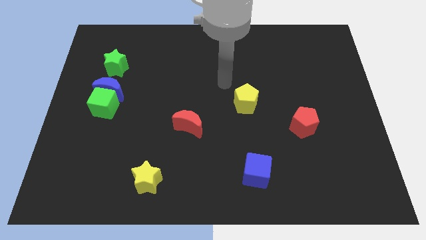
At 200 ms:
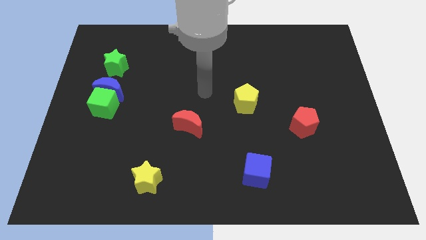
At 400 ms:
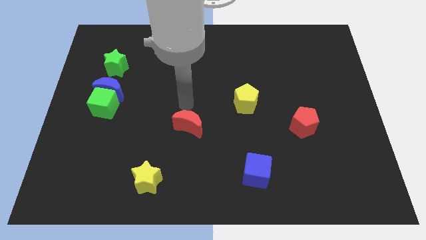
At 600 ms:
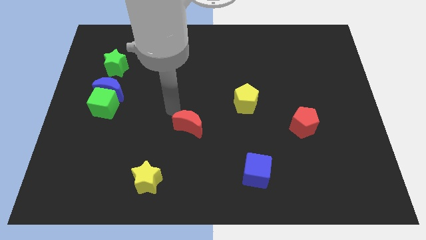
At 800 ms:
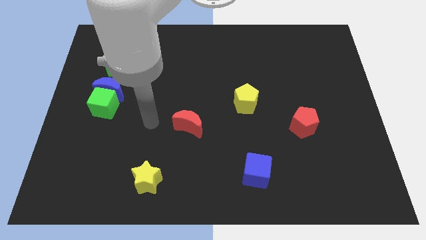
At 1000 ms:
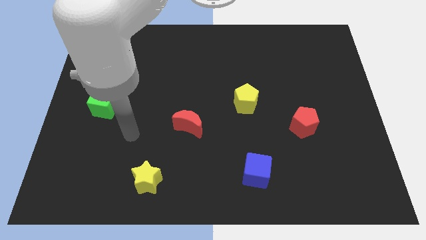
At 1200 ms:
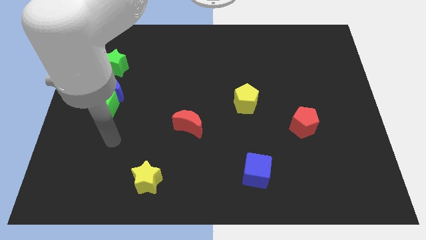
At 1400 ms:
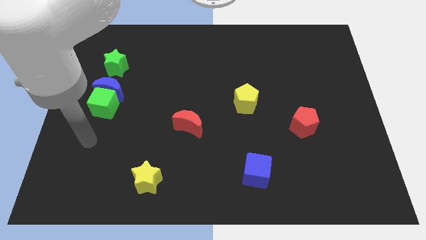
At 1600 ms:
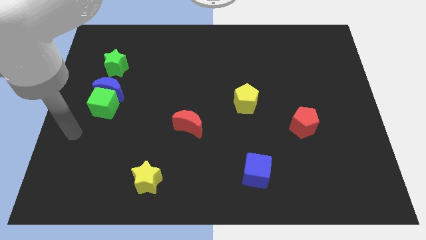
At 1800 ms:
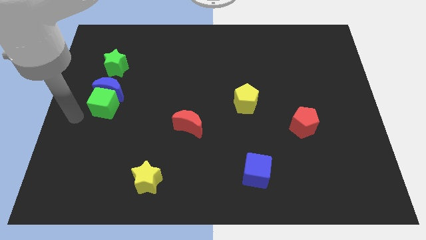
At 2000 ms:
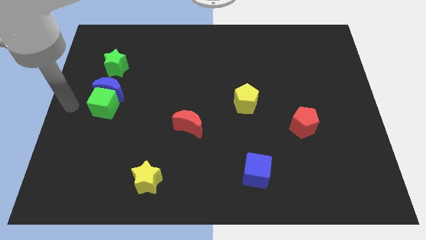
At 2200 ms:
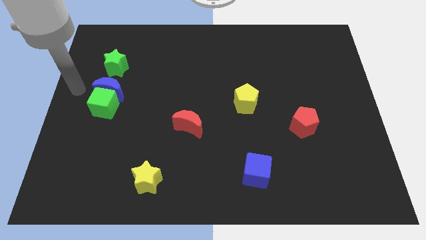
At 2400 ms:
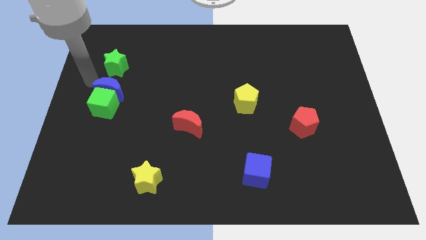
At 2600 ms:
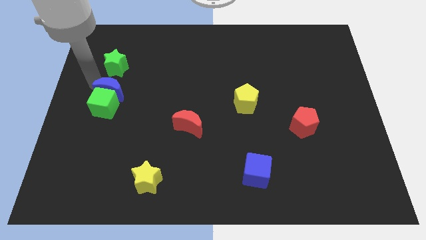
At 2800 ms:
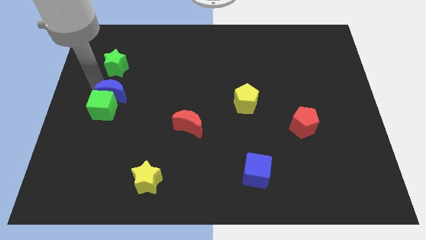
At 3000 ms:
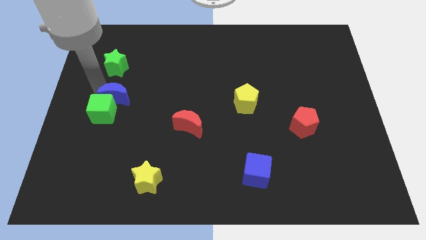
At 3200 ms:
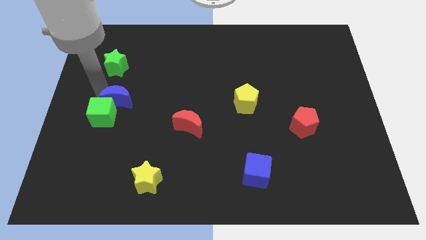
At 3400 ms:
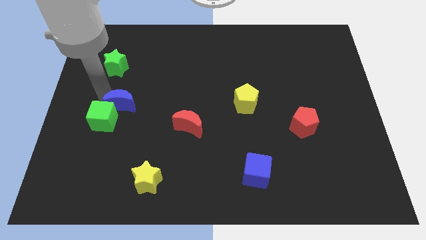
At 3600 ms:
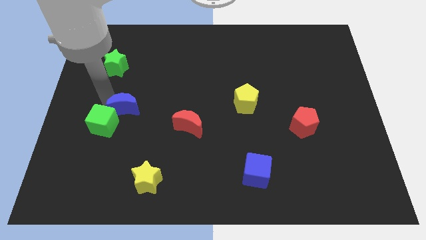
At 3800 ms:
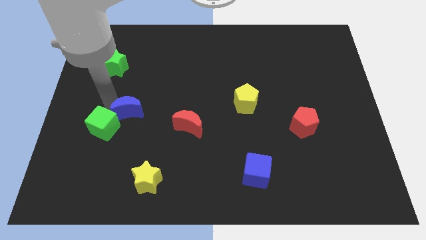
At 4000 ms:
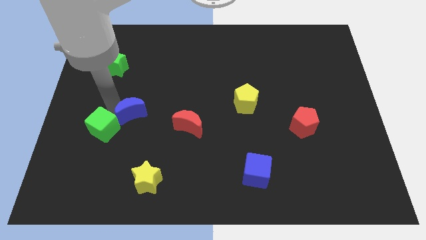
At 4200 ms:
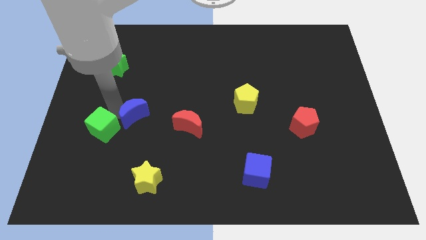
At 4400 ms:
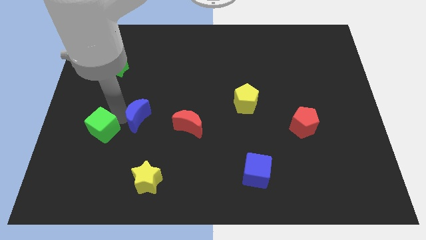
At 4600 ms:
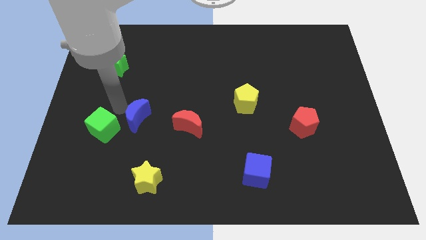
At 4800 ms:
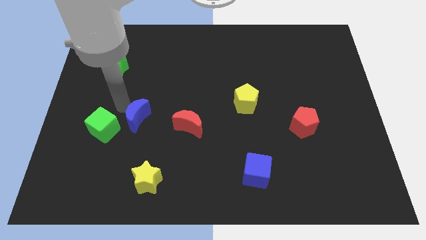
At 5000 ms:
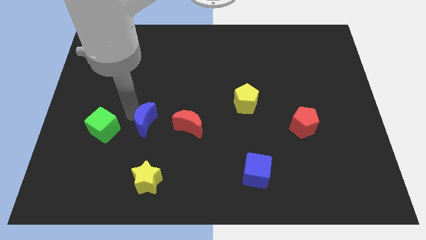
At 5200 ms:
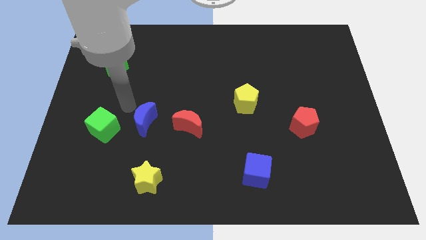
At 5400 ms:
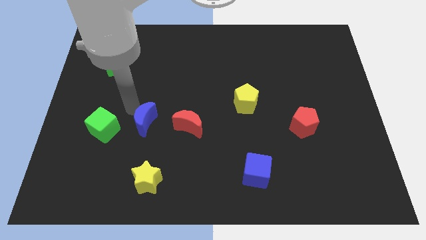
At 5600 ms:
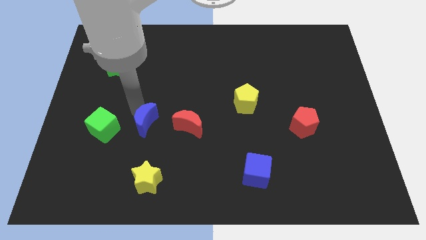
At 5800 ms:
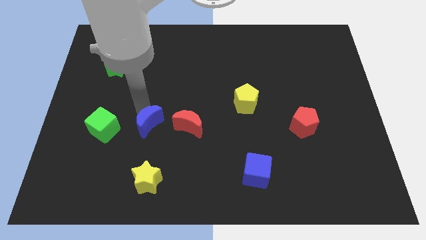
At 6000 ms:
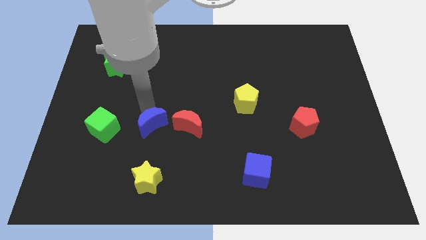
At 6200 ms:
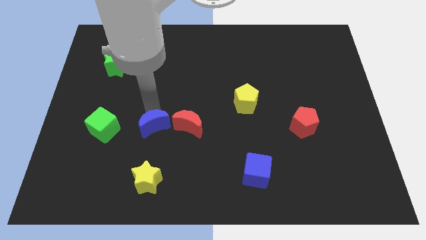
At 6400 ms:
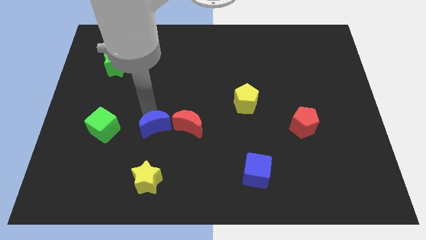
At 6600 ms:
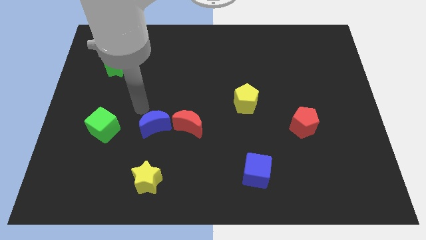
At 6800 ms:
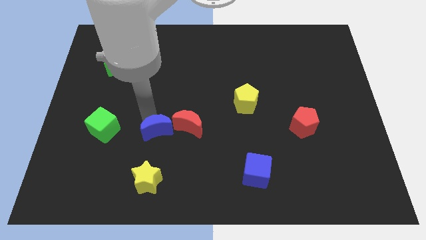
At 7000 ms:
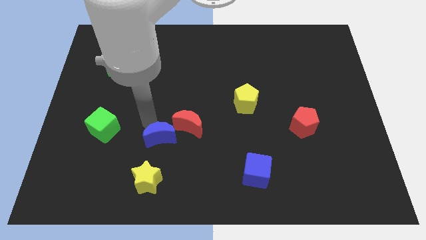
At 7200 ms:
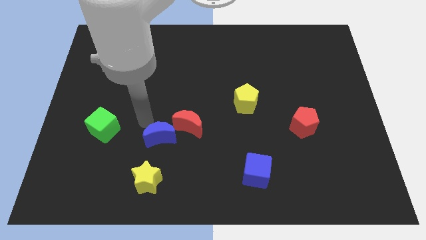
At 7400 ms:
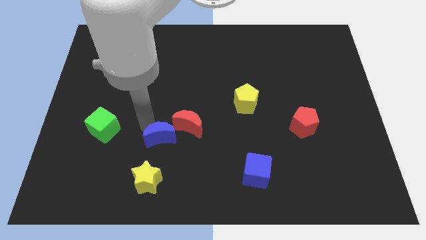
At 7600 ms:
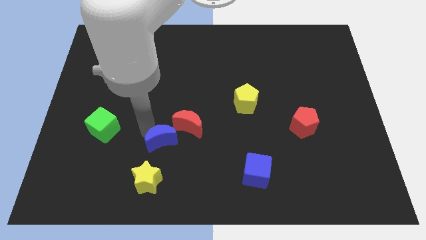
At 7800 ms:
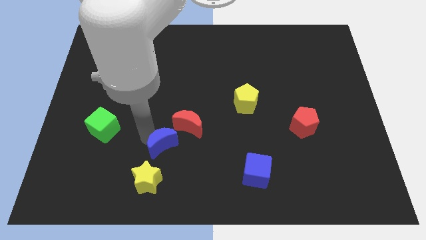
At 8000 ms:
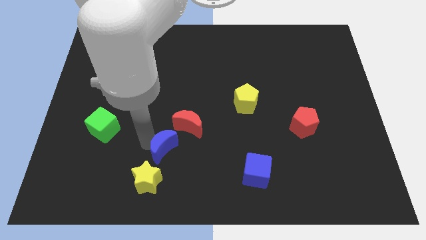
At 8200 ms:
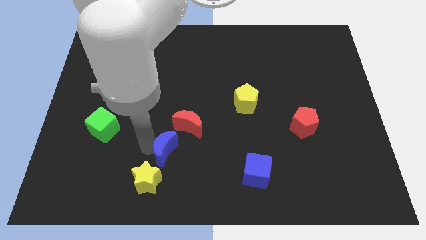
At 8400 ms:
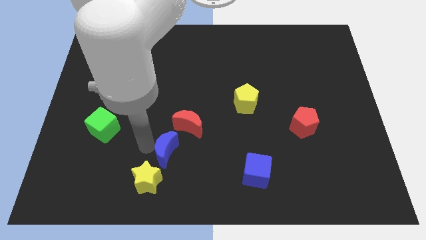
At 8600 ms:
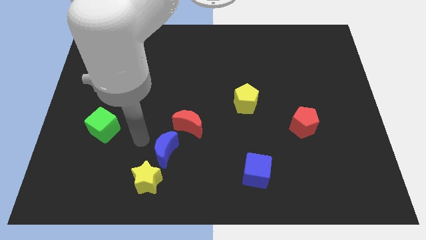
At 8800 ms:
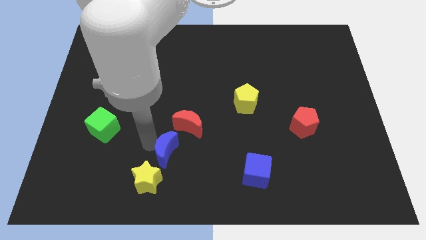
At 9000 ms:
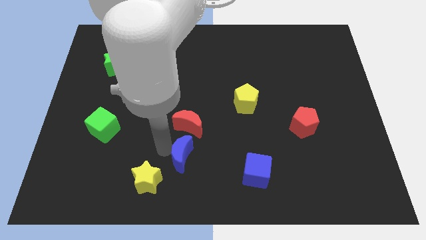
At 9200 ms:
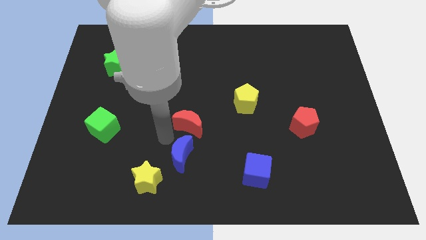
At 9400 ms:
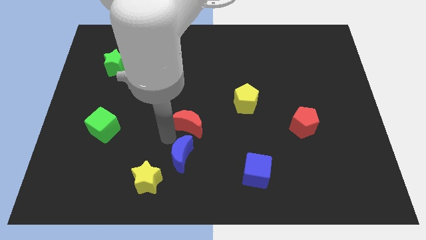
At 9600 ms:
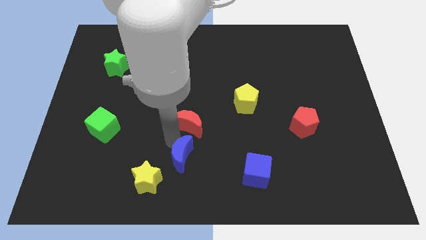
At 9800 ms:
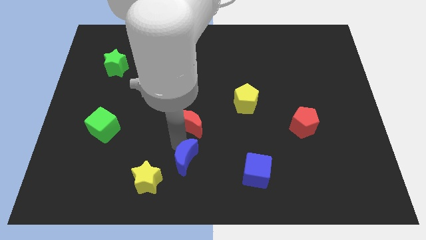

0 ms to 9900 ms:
put the blue moon right of the yellow star

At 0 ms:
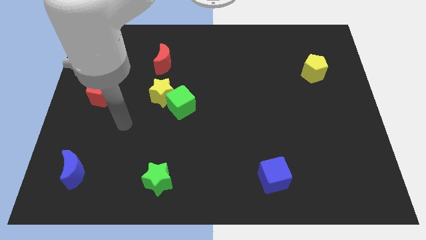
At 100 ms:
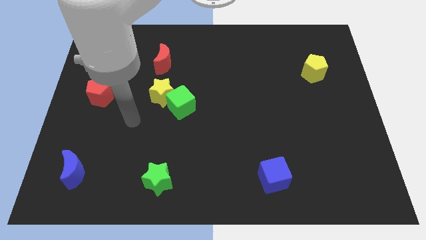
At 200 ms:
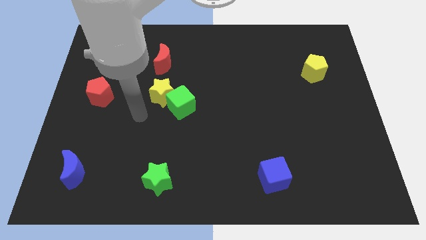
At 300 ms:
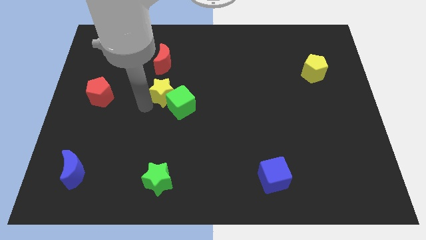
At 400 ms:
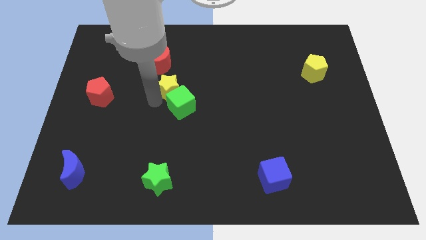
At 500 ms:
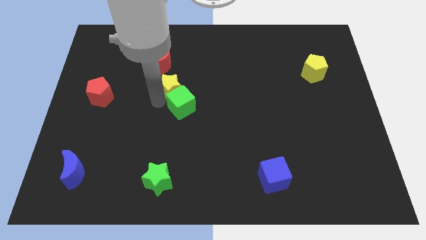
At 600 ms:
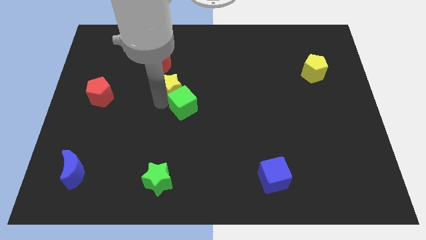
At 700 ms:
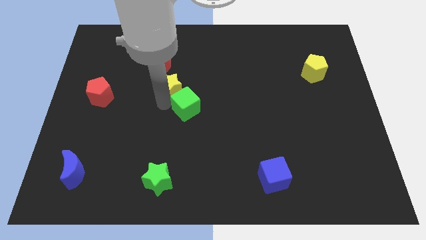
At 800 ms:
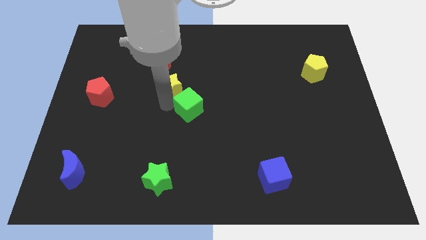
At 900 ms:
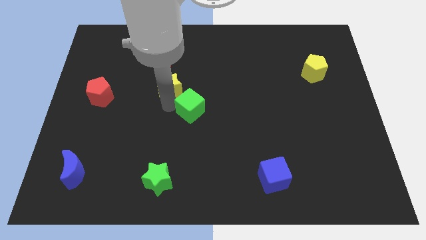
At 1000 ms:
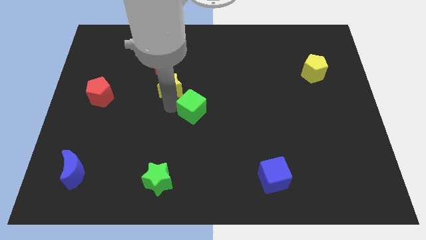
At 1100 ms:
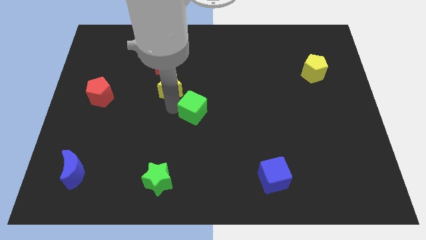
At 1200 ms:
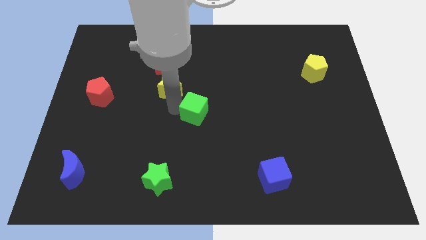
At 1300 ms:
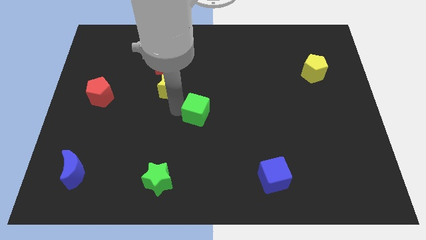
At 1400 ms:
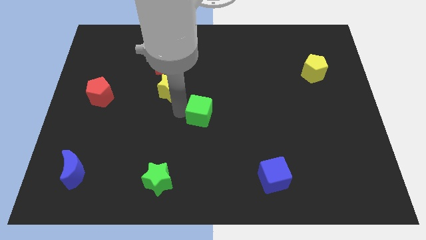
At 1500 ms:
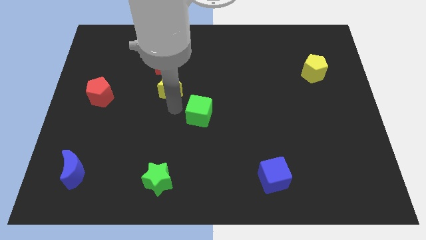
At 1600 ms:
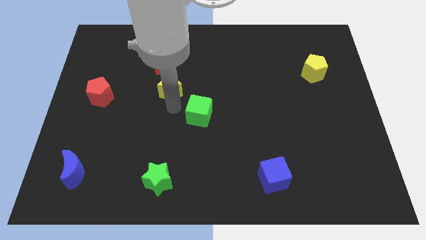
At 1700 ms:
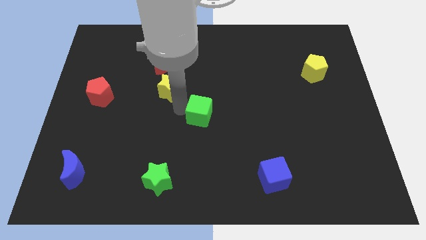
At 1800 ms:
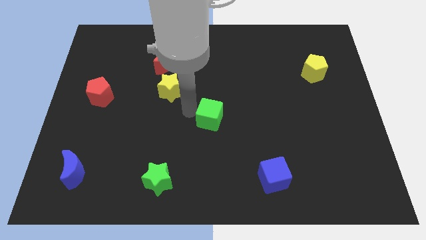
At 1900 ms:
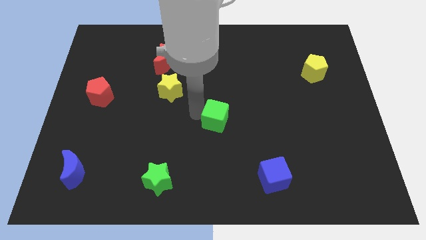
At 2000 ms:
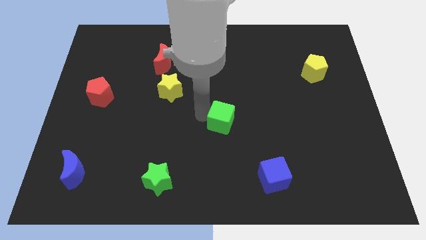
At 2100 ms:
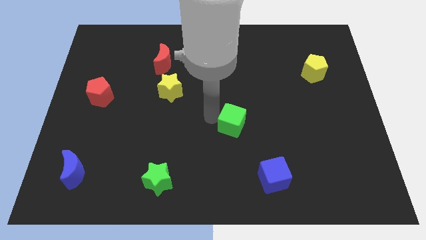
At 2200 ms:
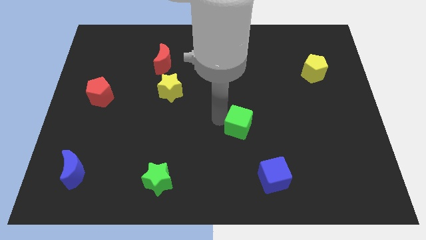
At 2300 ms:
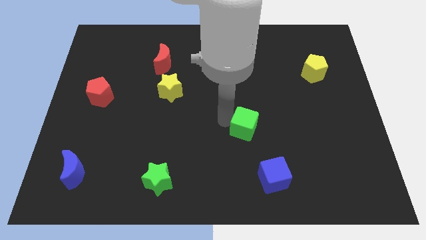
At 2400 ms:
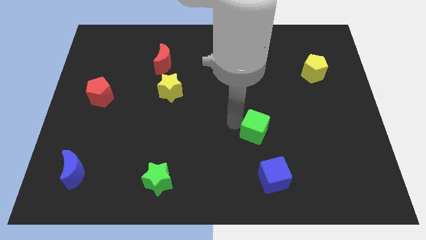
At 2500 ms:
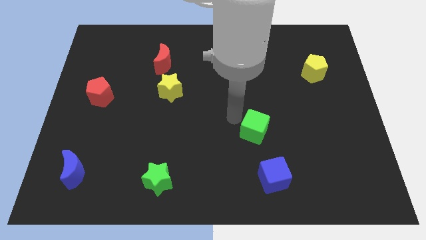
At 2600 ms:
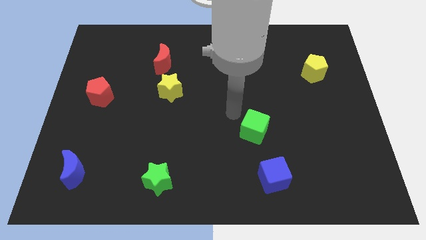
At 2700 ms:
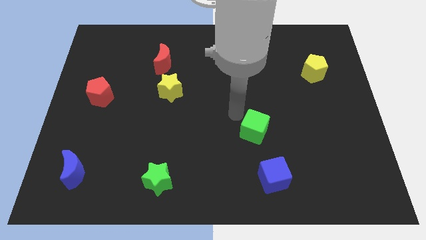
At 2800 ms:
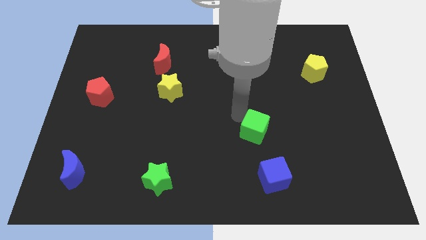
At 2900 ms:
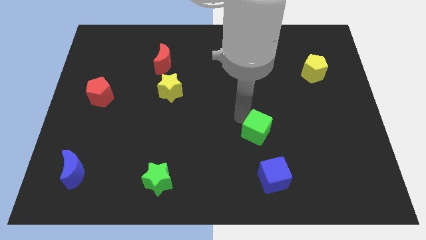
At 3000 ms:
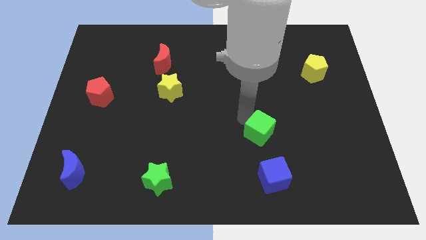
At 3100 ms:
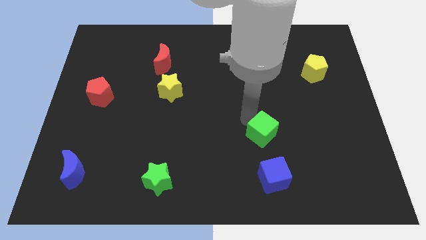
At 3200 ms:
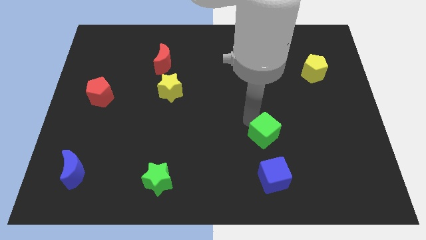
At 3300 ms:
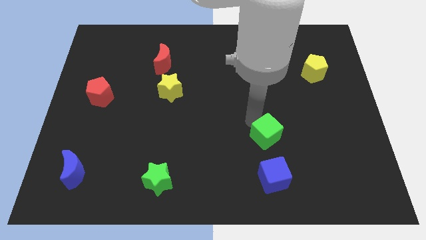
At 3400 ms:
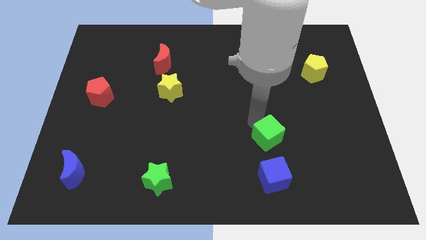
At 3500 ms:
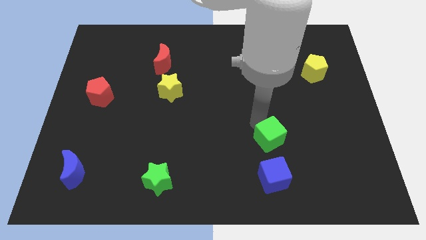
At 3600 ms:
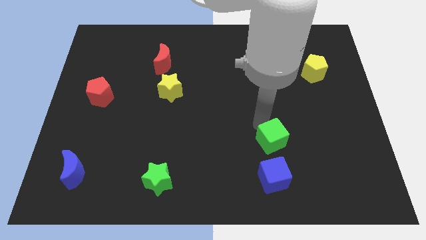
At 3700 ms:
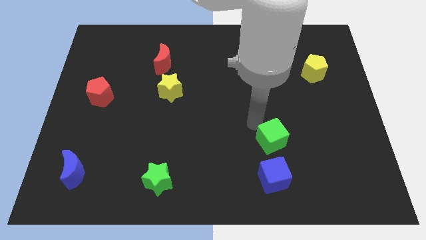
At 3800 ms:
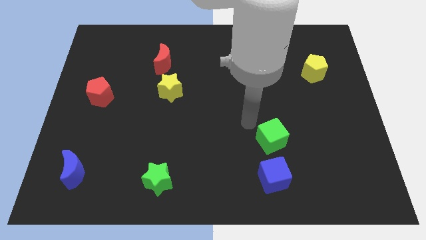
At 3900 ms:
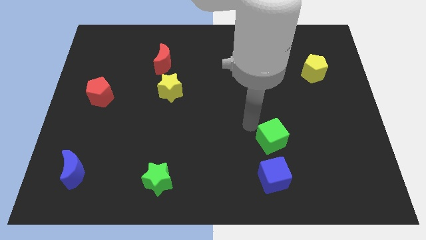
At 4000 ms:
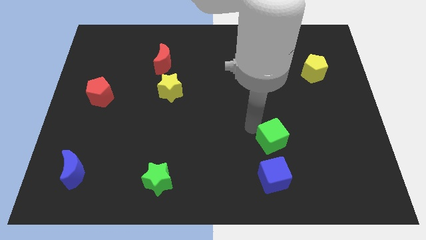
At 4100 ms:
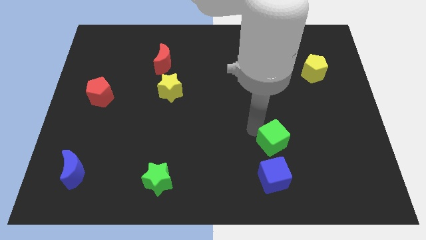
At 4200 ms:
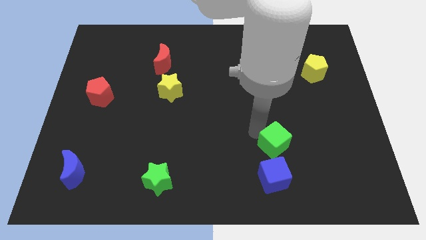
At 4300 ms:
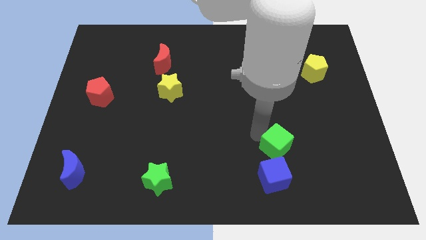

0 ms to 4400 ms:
put the green cube to the top right of the blue cube
